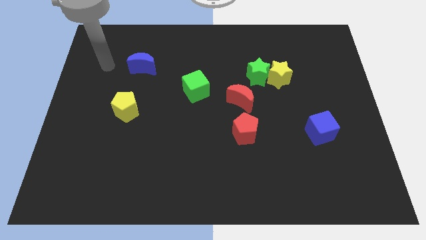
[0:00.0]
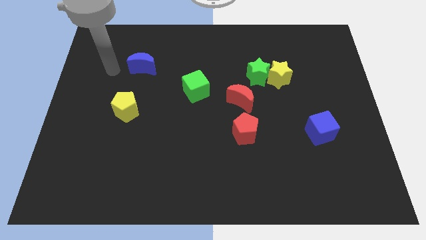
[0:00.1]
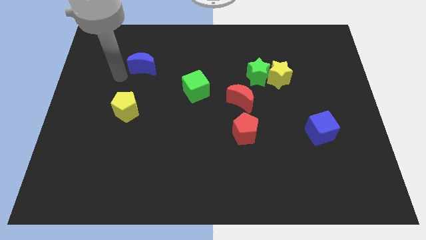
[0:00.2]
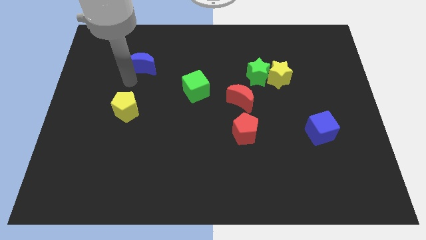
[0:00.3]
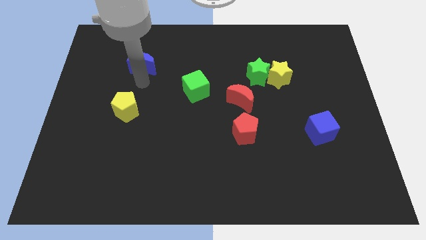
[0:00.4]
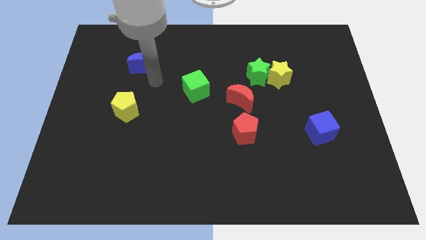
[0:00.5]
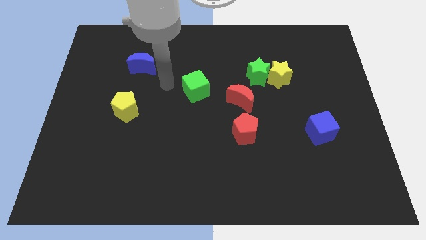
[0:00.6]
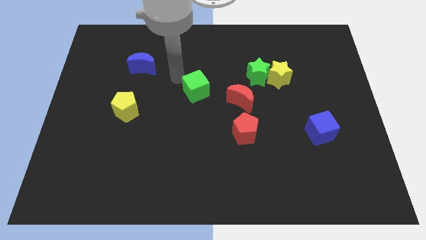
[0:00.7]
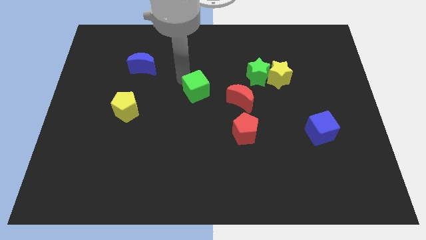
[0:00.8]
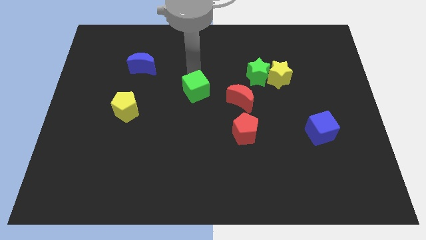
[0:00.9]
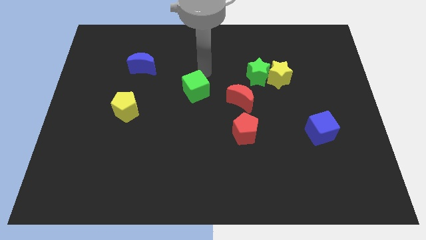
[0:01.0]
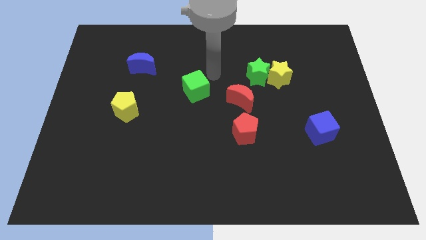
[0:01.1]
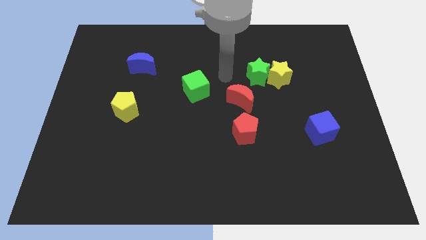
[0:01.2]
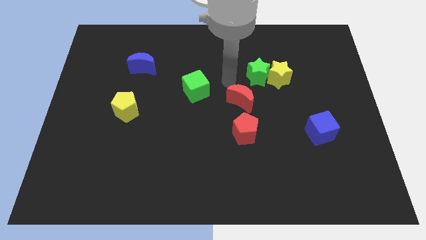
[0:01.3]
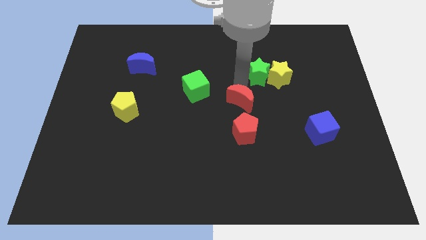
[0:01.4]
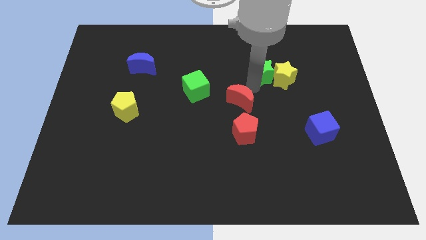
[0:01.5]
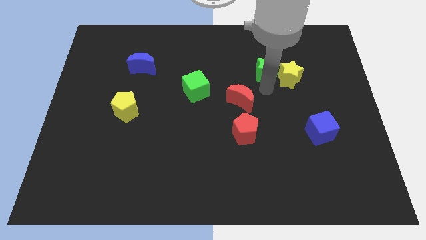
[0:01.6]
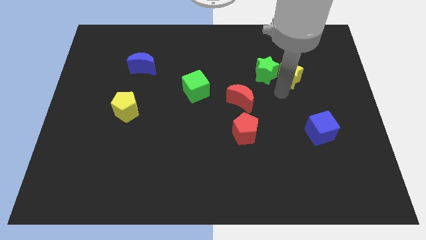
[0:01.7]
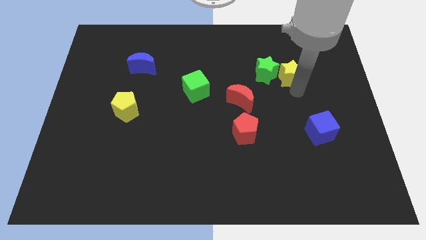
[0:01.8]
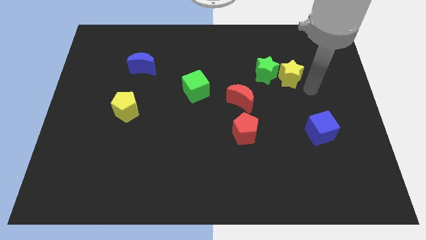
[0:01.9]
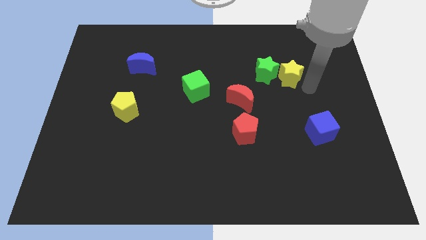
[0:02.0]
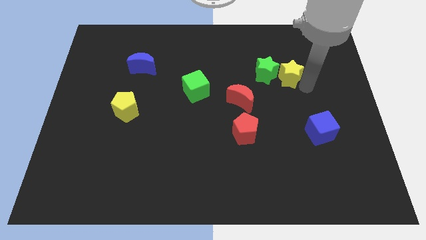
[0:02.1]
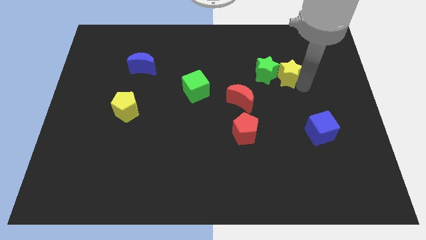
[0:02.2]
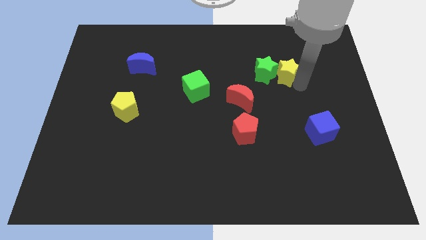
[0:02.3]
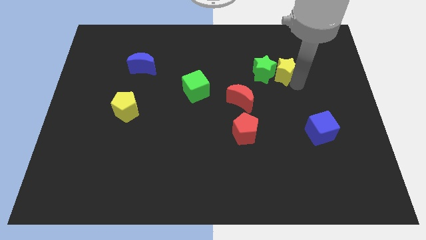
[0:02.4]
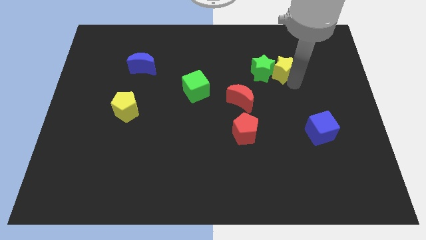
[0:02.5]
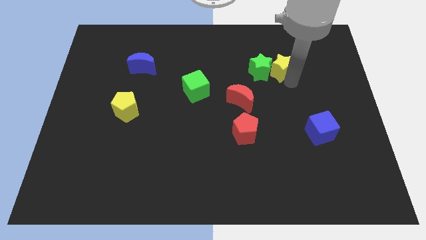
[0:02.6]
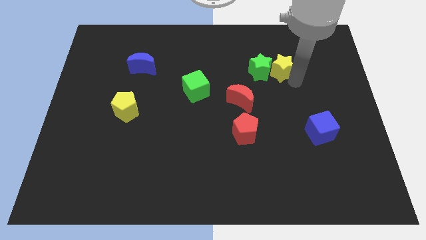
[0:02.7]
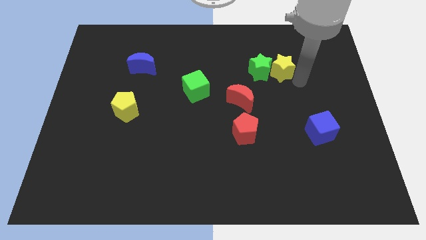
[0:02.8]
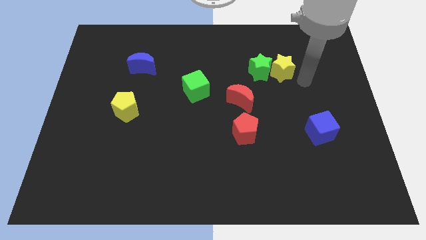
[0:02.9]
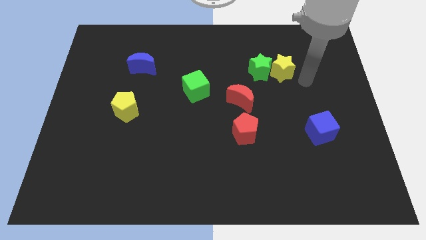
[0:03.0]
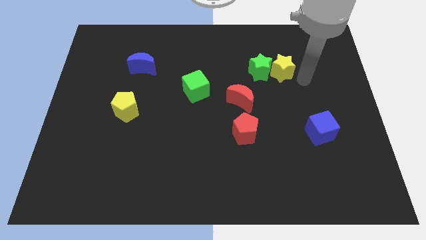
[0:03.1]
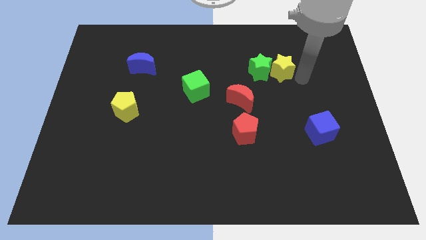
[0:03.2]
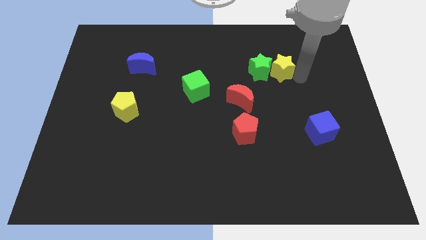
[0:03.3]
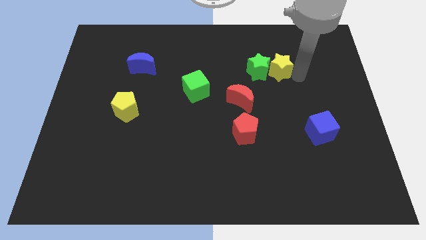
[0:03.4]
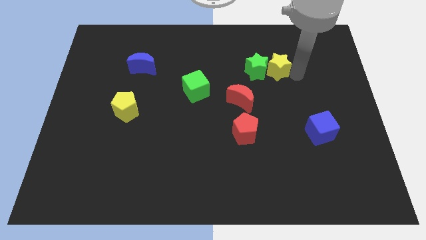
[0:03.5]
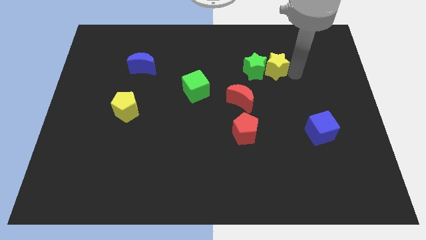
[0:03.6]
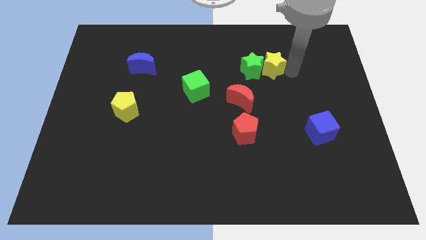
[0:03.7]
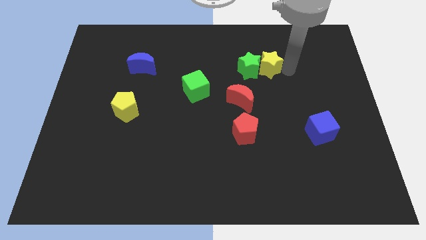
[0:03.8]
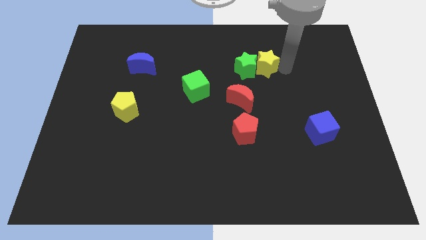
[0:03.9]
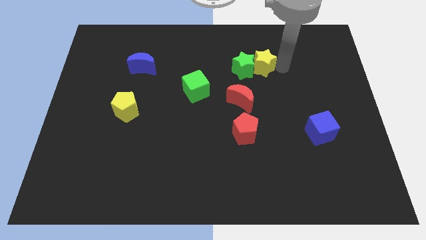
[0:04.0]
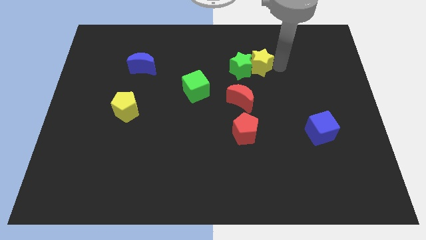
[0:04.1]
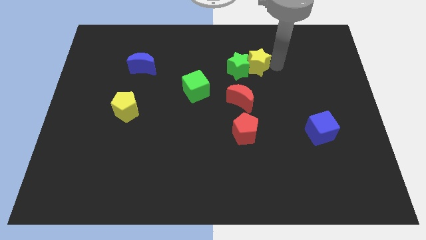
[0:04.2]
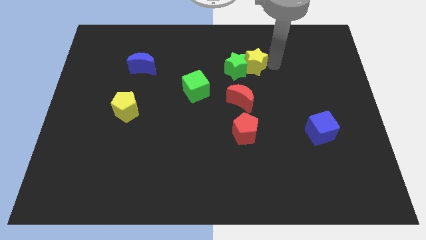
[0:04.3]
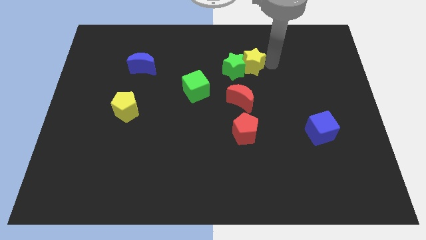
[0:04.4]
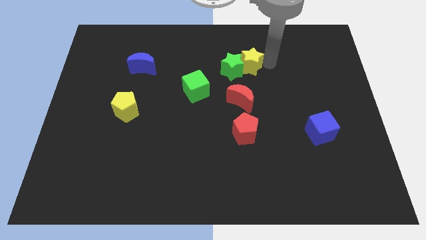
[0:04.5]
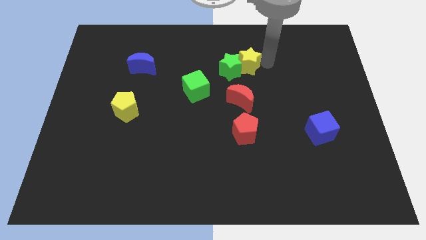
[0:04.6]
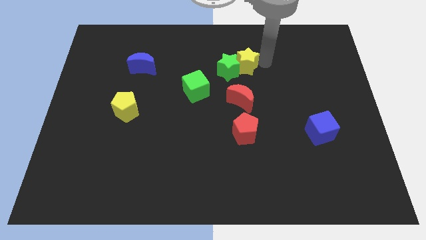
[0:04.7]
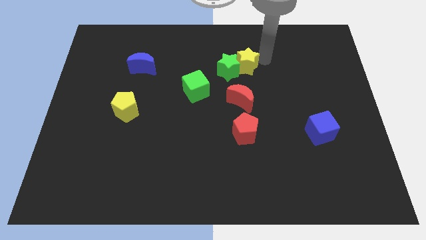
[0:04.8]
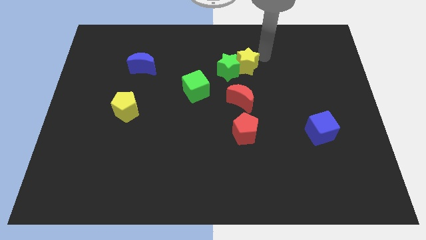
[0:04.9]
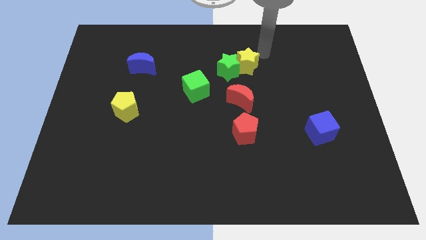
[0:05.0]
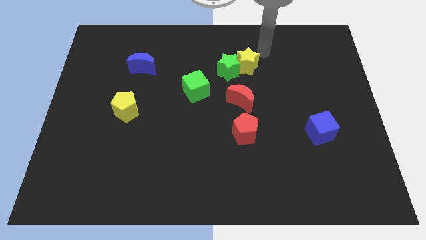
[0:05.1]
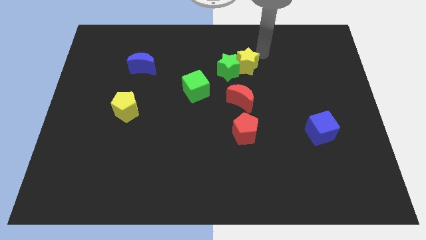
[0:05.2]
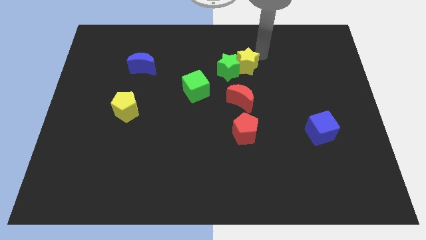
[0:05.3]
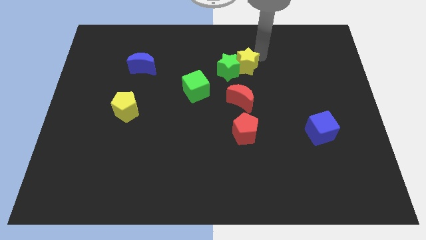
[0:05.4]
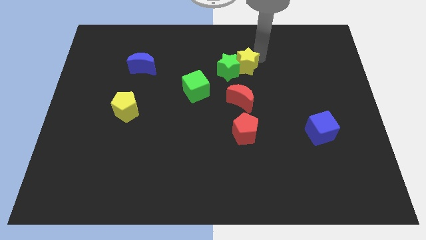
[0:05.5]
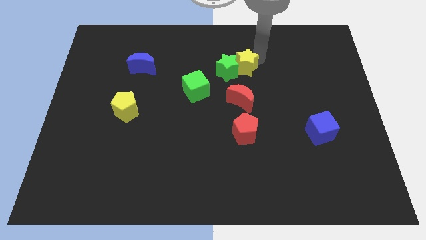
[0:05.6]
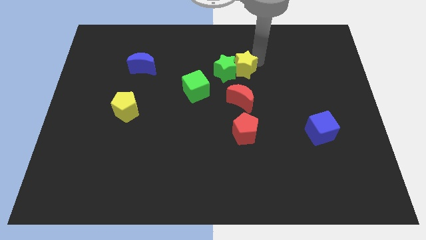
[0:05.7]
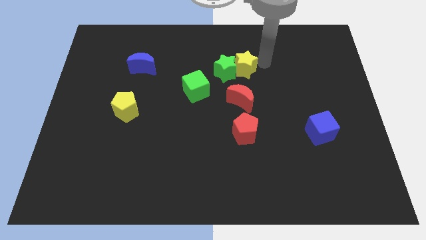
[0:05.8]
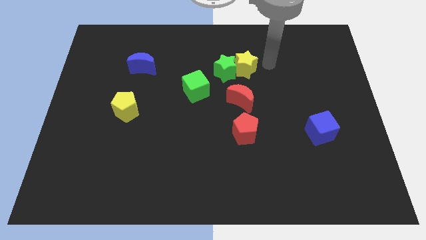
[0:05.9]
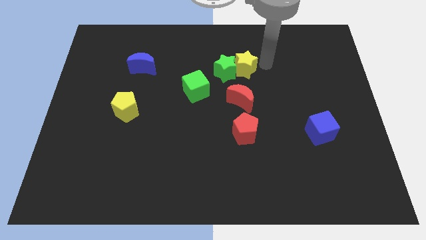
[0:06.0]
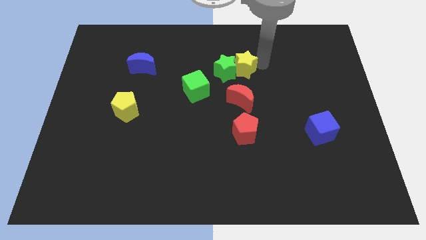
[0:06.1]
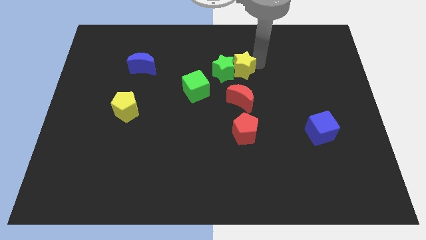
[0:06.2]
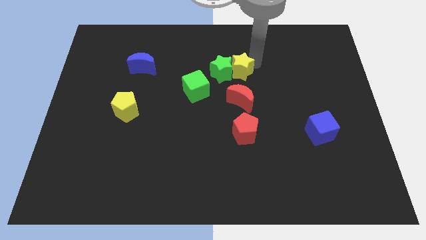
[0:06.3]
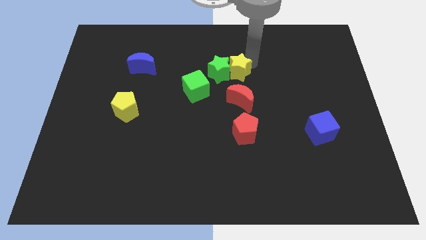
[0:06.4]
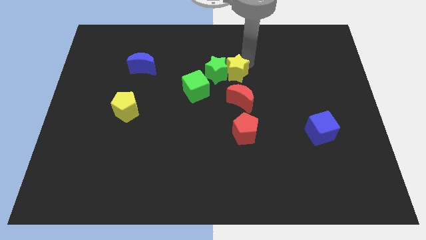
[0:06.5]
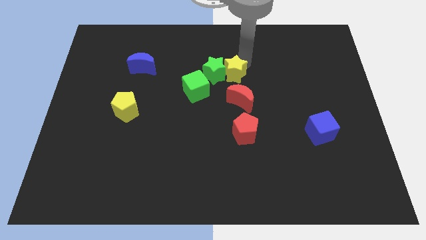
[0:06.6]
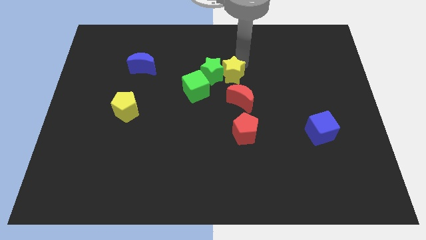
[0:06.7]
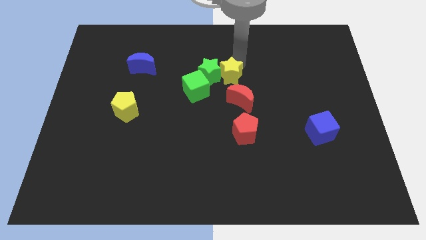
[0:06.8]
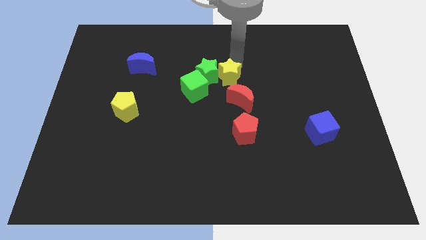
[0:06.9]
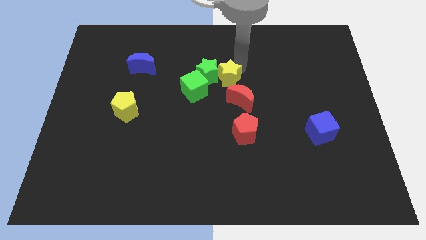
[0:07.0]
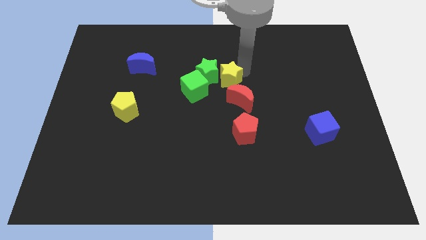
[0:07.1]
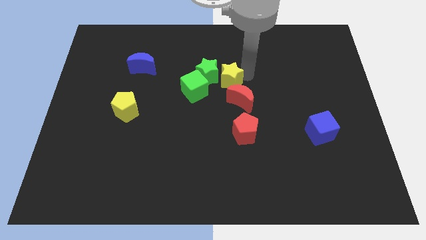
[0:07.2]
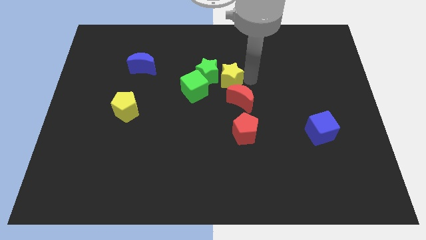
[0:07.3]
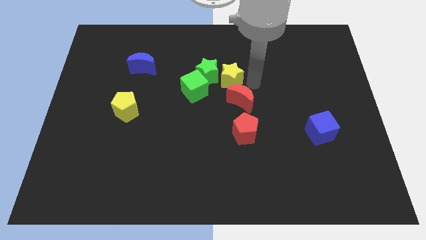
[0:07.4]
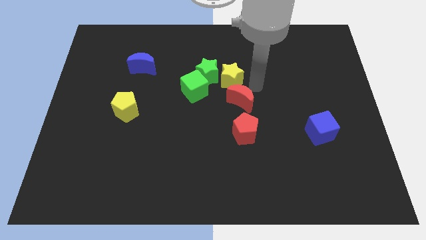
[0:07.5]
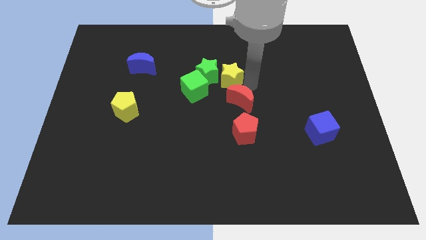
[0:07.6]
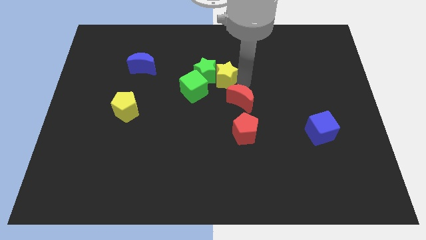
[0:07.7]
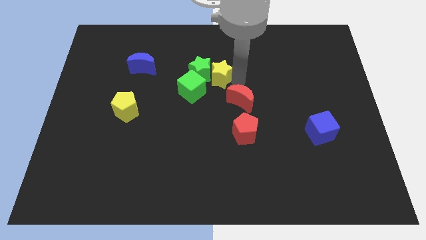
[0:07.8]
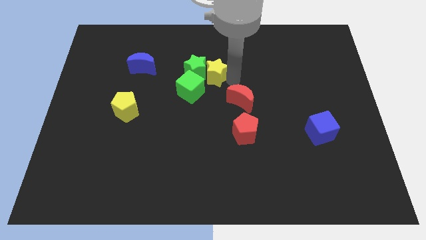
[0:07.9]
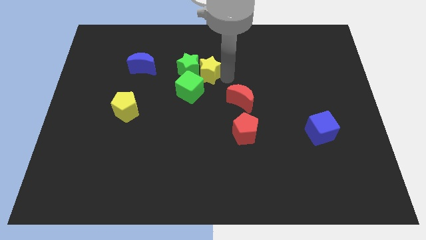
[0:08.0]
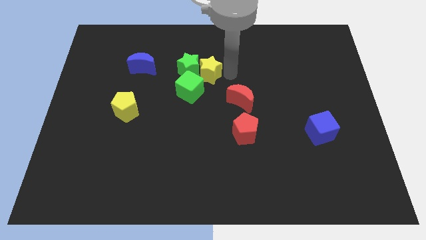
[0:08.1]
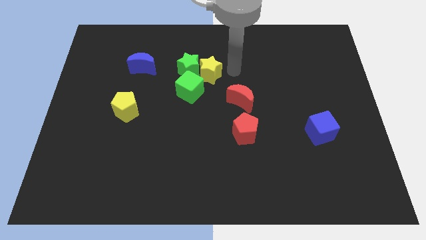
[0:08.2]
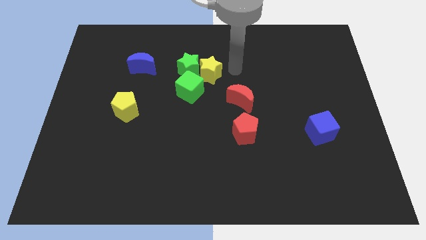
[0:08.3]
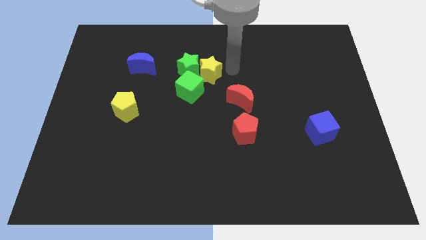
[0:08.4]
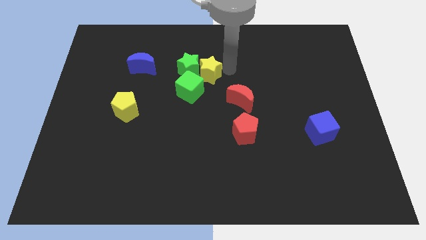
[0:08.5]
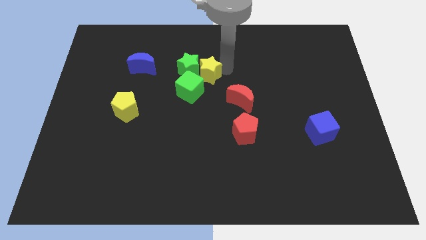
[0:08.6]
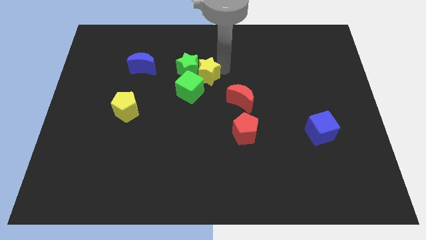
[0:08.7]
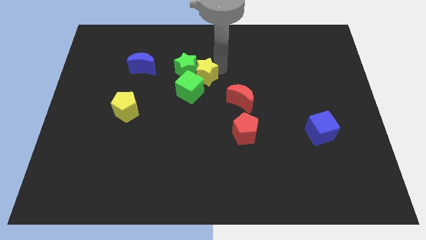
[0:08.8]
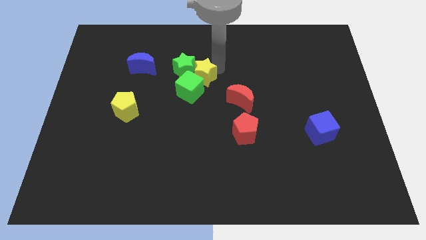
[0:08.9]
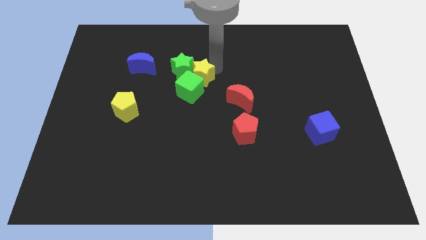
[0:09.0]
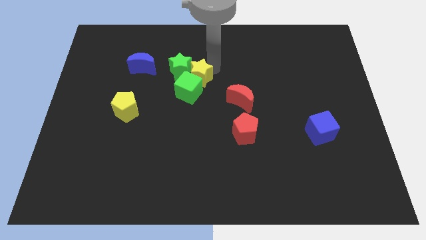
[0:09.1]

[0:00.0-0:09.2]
push the yellow star to the left
